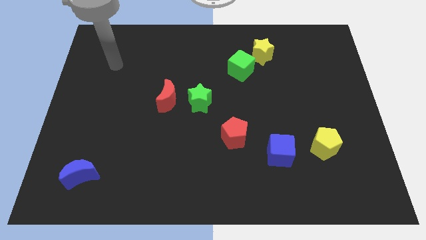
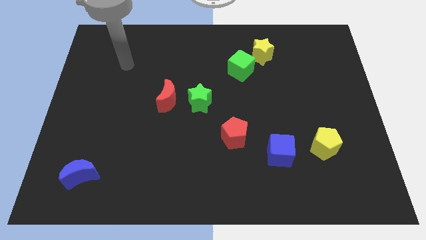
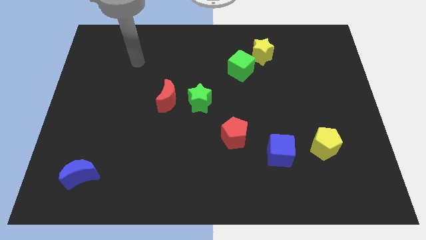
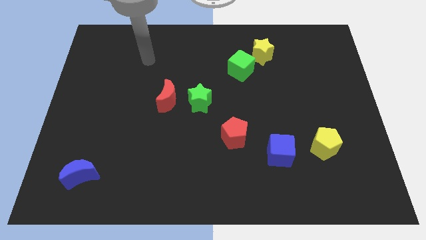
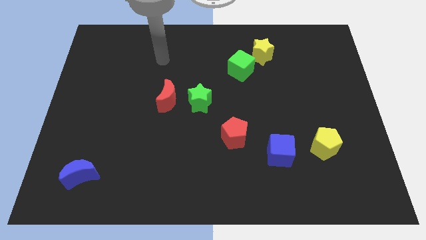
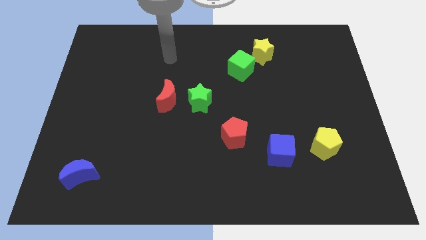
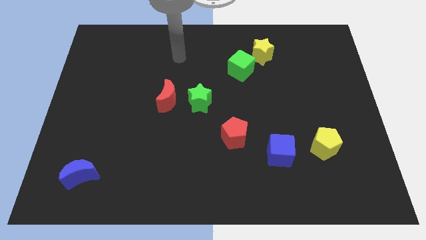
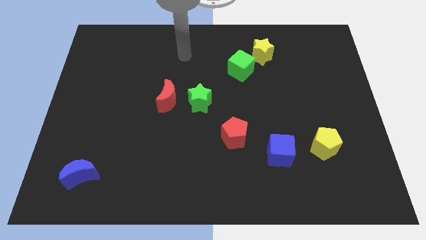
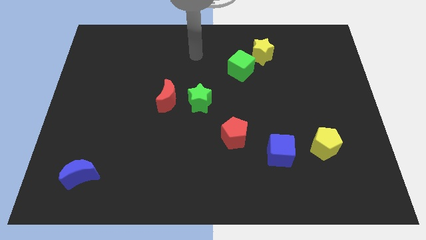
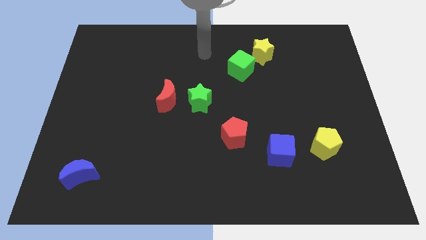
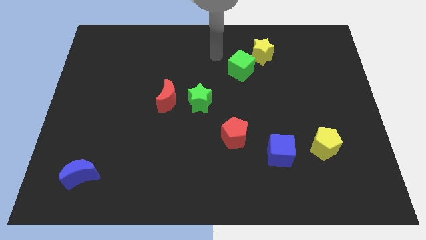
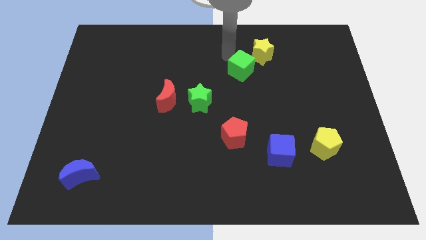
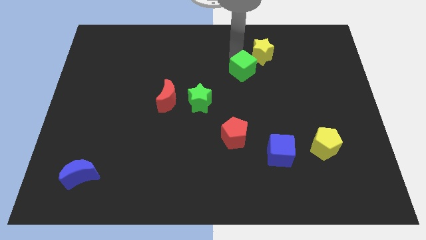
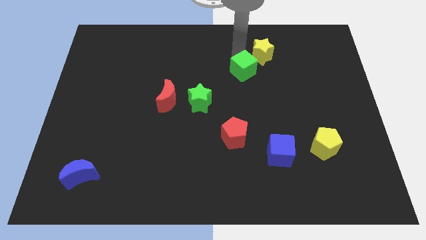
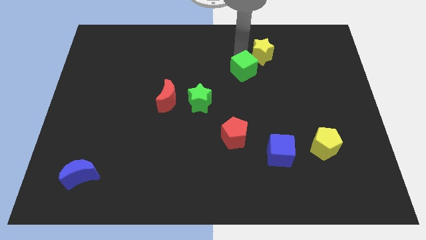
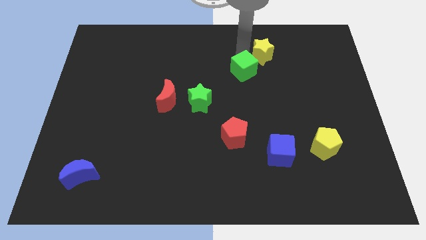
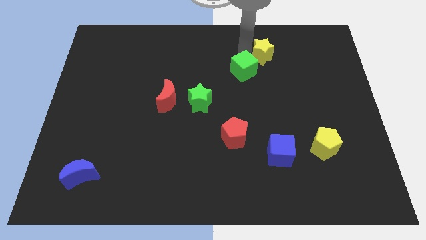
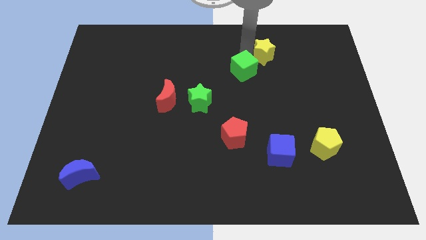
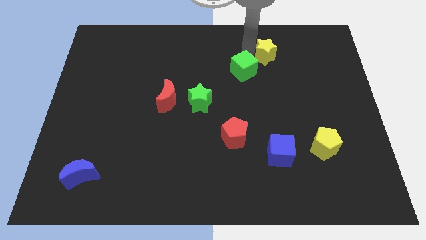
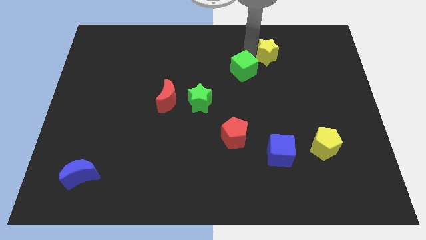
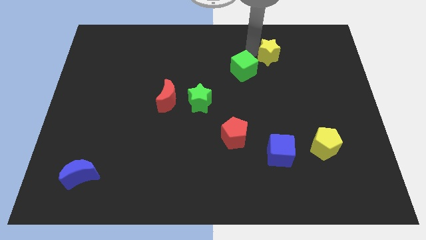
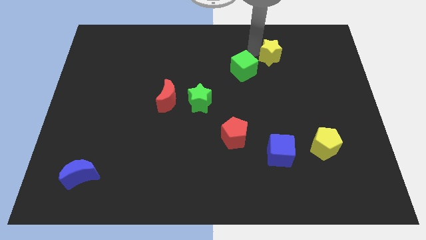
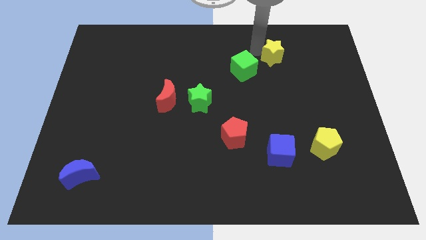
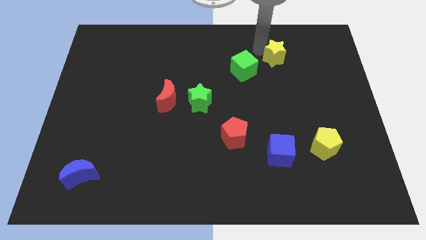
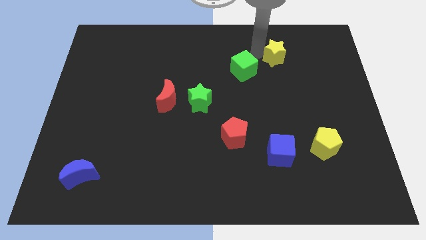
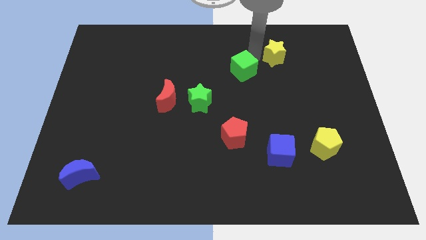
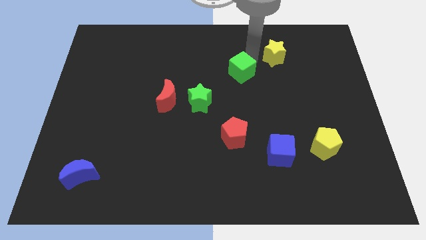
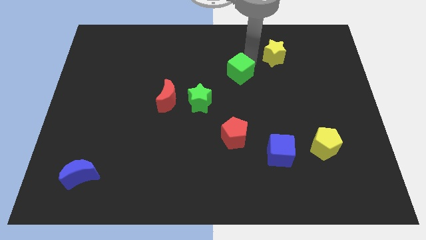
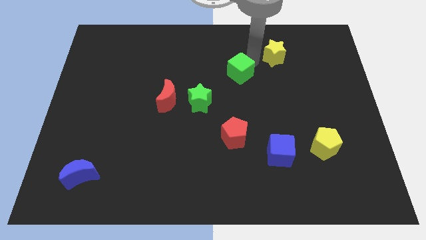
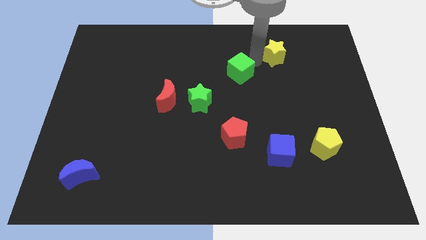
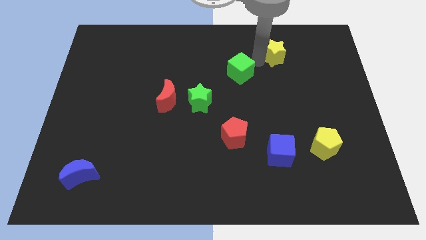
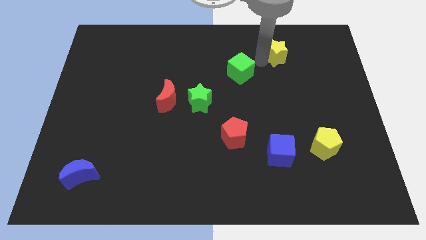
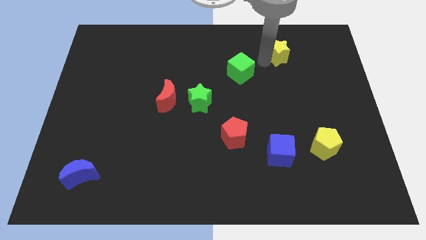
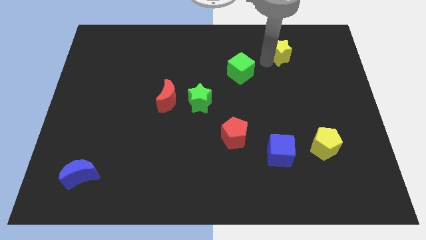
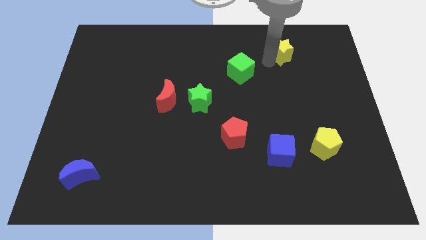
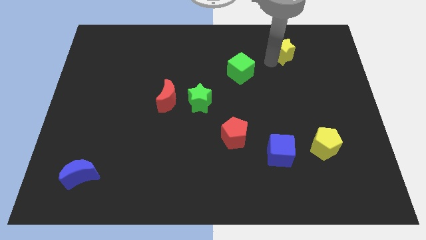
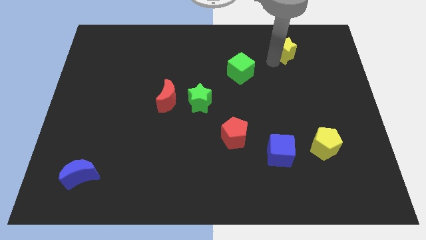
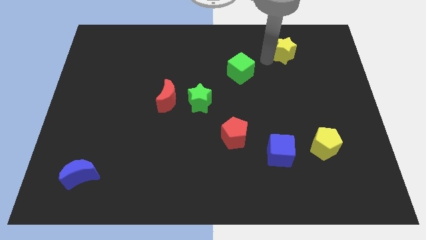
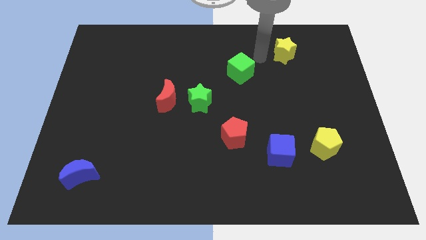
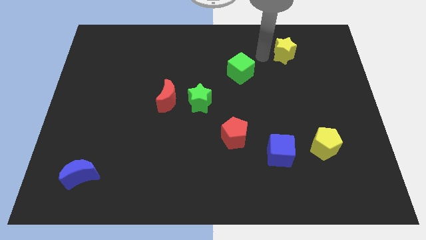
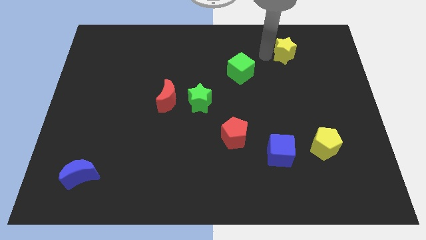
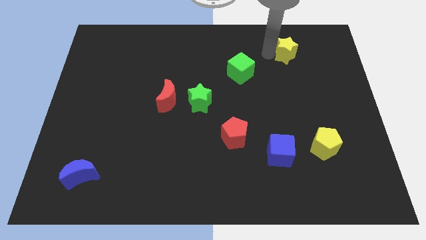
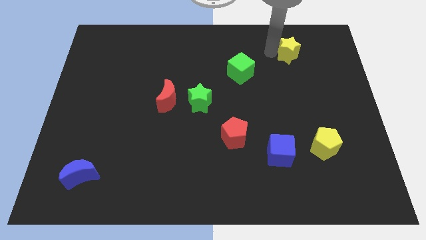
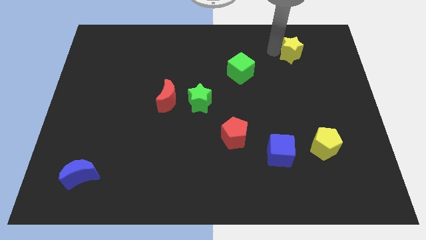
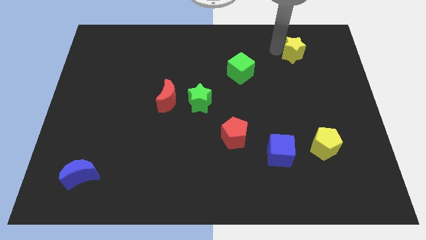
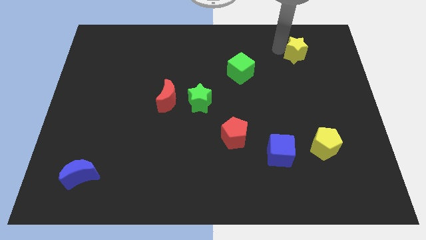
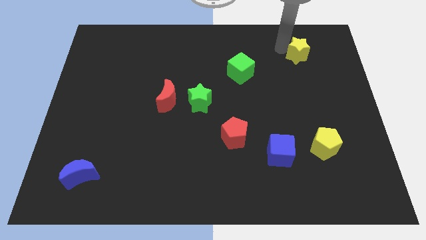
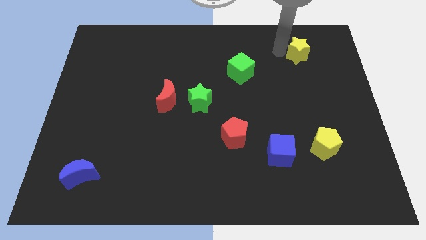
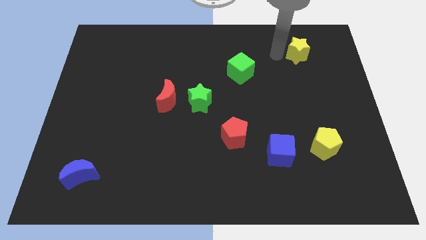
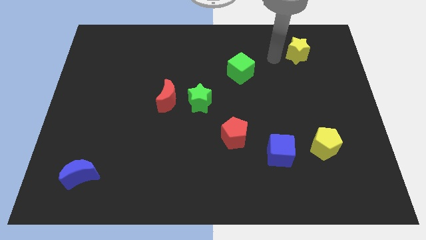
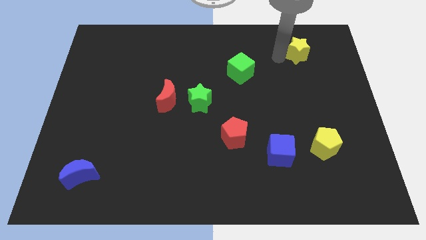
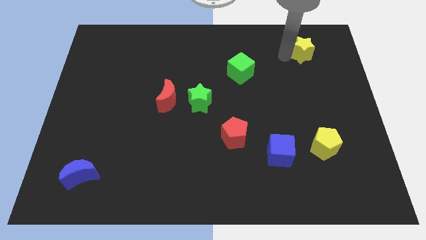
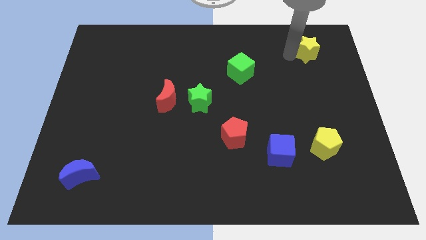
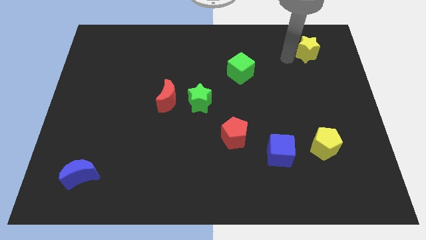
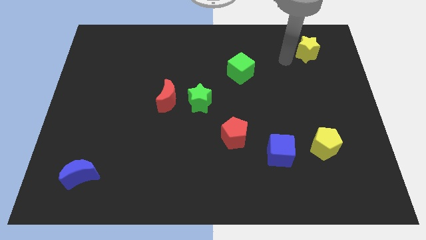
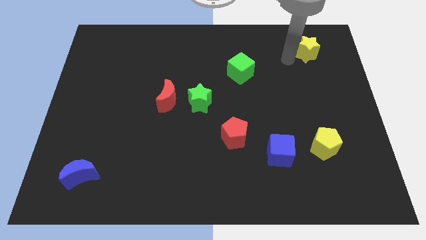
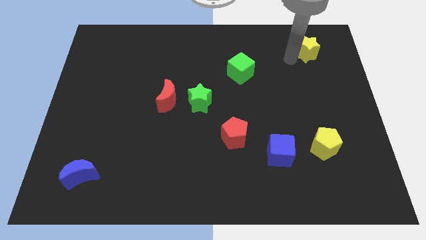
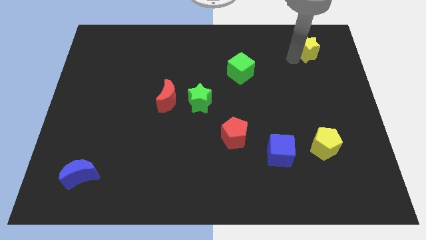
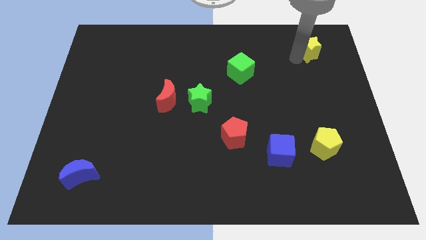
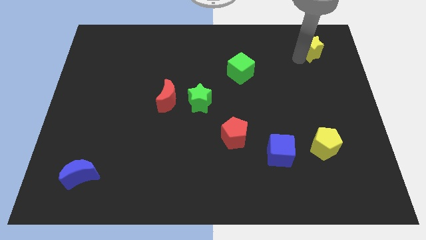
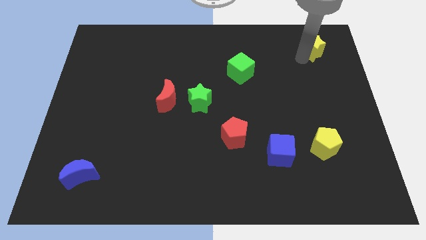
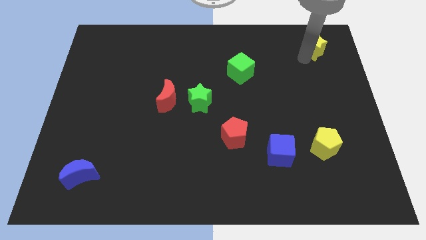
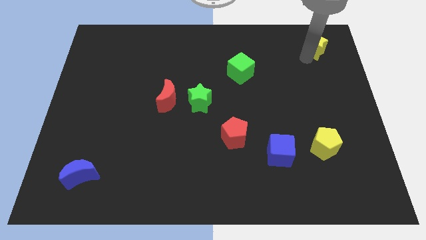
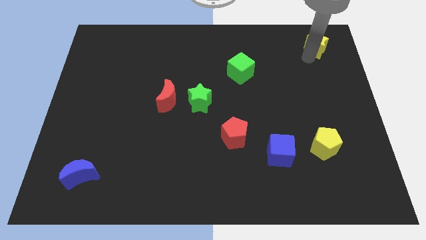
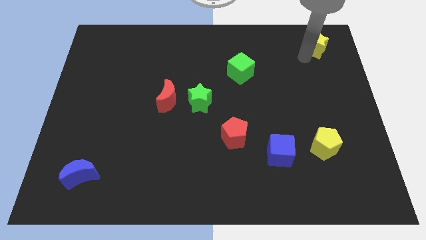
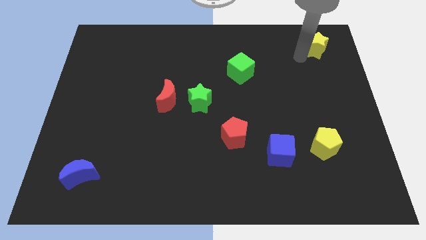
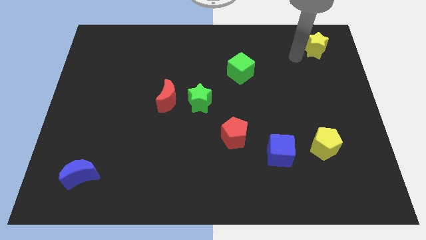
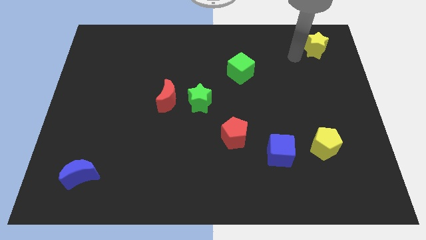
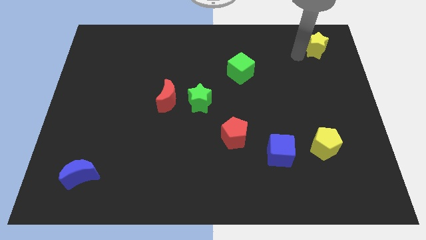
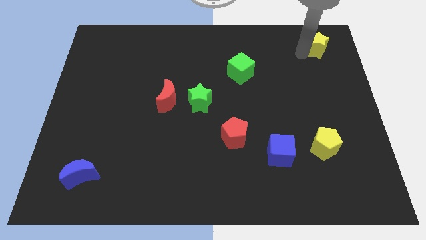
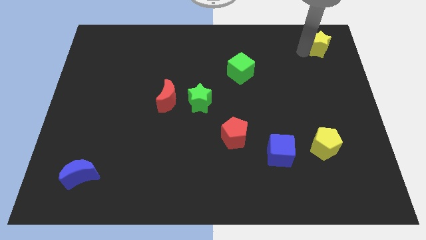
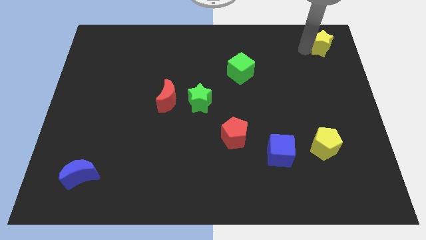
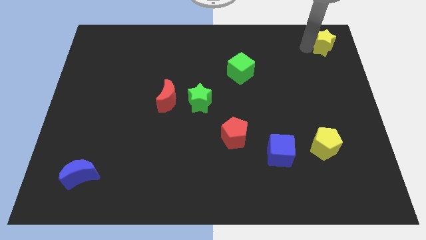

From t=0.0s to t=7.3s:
put the yellow star to the upper right corner
